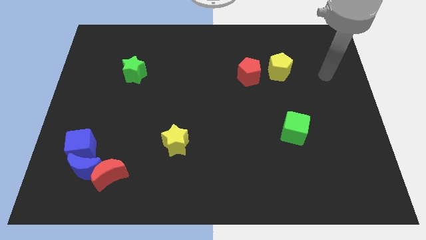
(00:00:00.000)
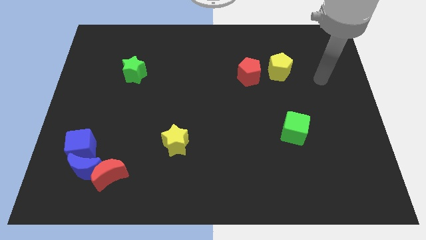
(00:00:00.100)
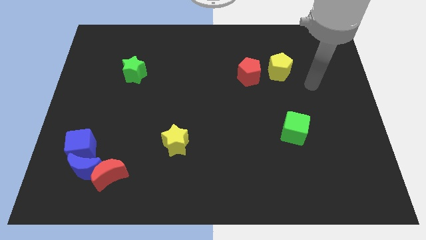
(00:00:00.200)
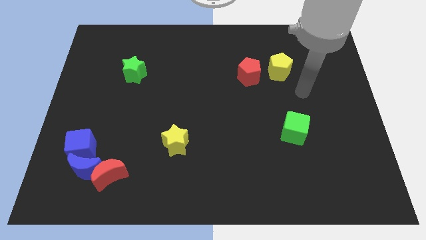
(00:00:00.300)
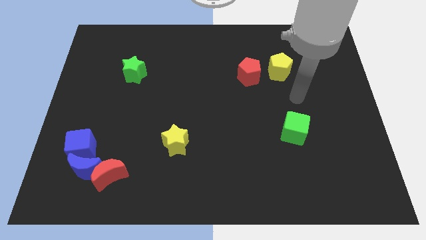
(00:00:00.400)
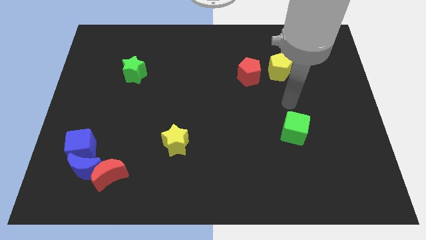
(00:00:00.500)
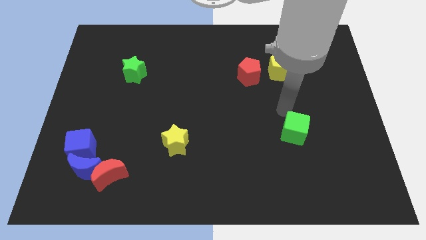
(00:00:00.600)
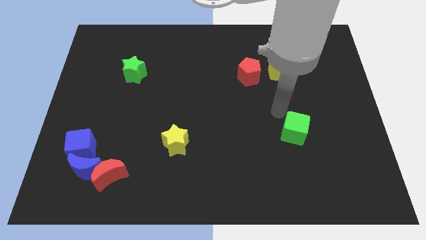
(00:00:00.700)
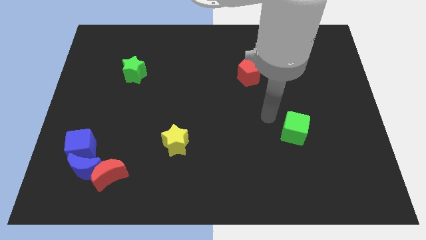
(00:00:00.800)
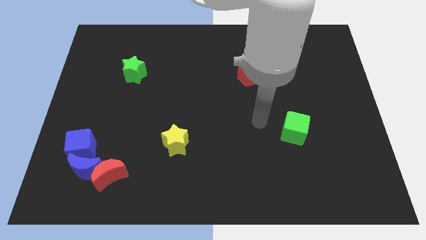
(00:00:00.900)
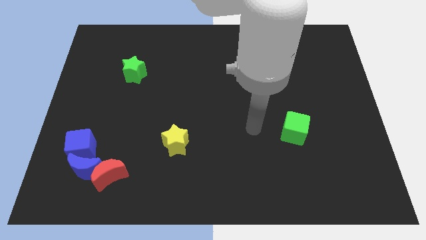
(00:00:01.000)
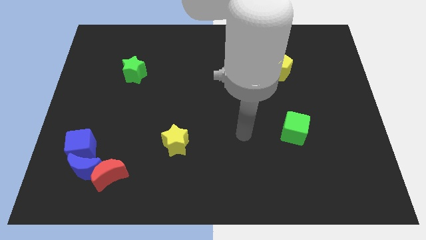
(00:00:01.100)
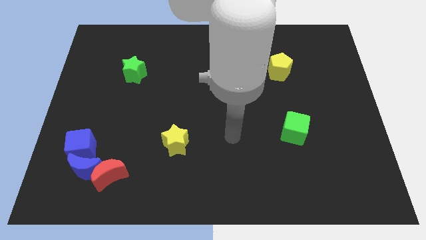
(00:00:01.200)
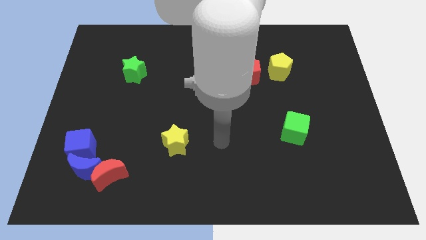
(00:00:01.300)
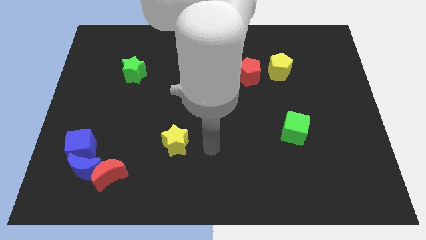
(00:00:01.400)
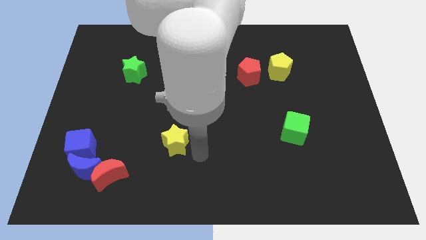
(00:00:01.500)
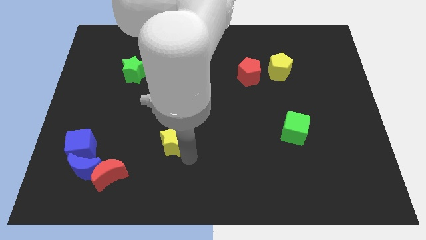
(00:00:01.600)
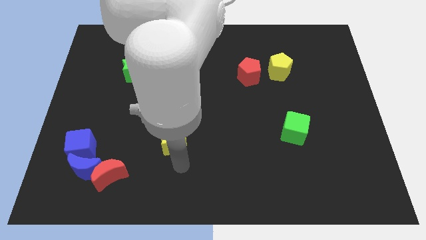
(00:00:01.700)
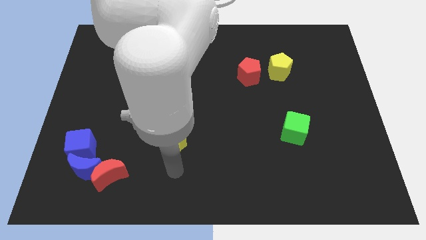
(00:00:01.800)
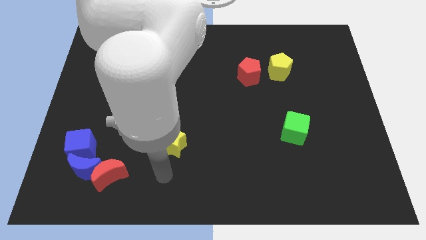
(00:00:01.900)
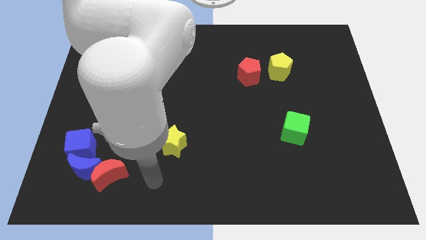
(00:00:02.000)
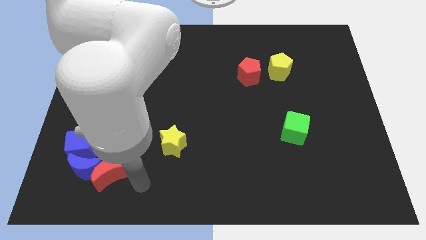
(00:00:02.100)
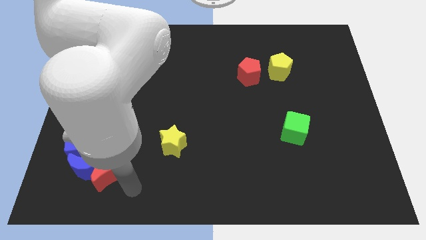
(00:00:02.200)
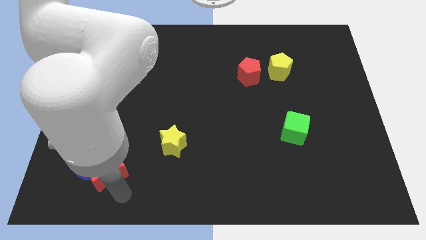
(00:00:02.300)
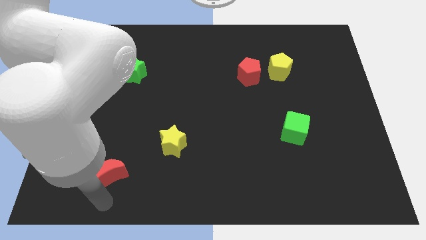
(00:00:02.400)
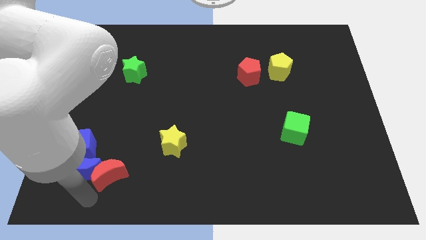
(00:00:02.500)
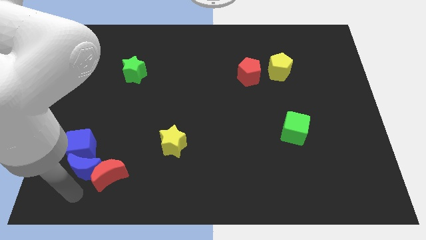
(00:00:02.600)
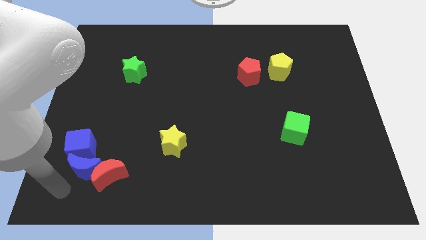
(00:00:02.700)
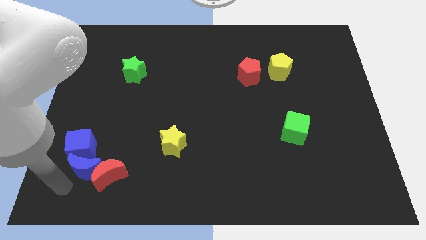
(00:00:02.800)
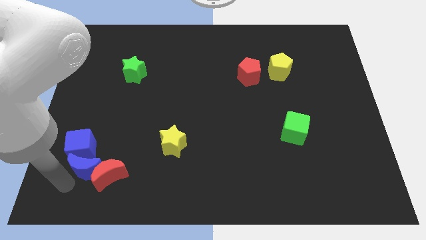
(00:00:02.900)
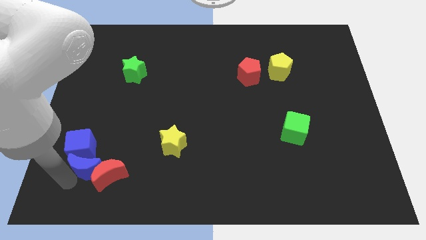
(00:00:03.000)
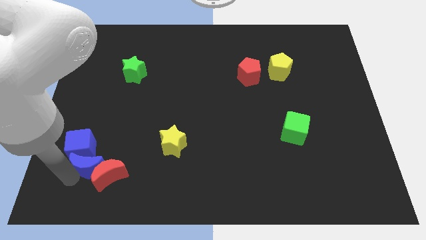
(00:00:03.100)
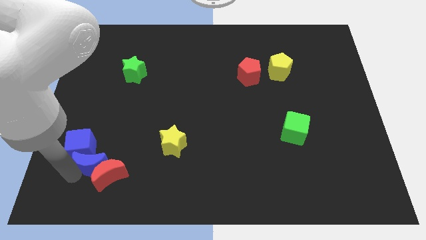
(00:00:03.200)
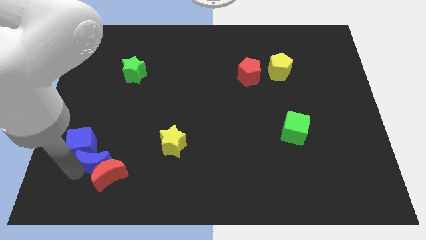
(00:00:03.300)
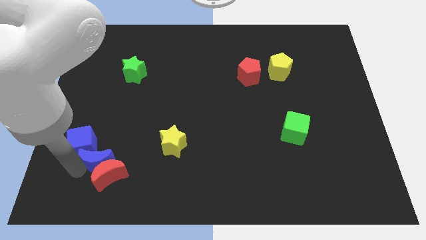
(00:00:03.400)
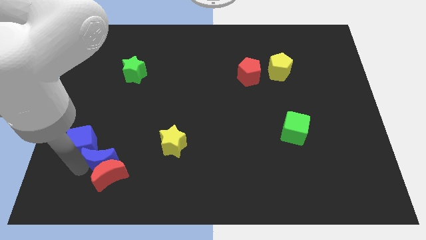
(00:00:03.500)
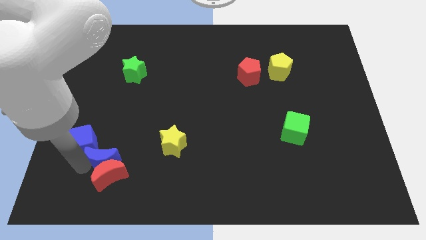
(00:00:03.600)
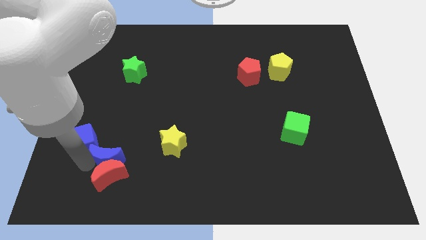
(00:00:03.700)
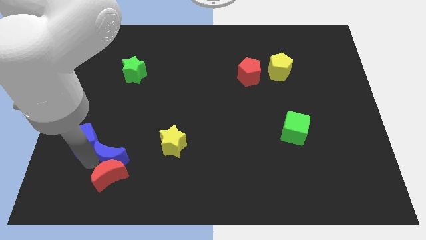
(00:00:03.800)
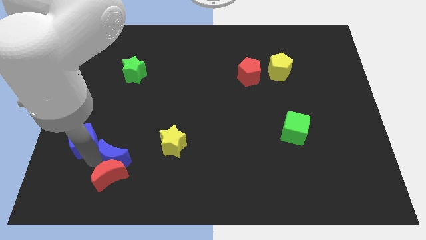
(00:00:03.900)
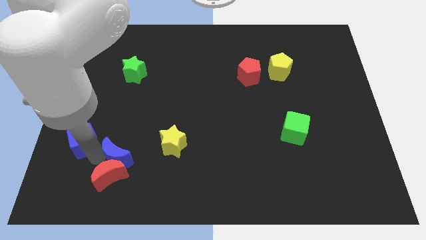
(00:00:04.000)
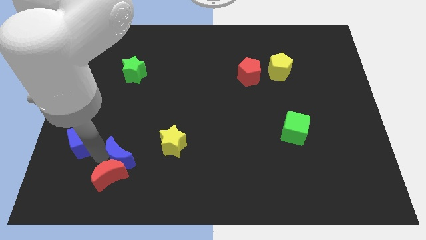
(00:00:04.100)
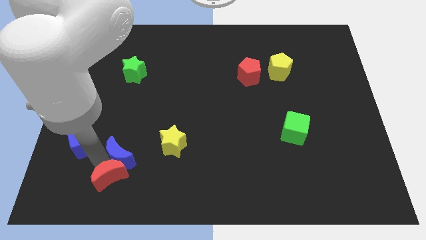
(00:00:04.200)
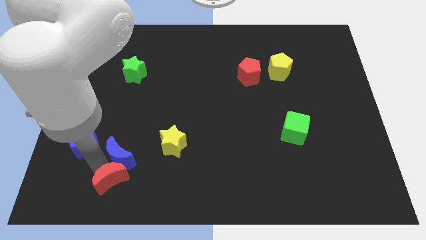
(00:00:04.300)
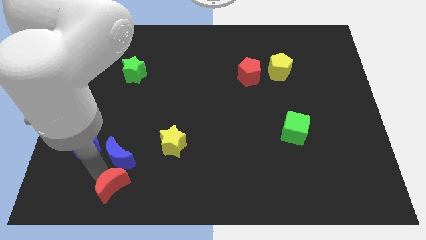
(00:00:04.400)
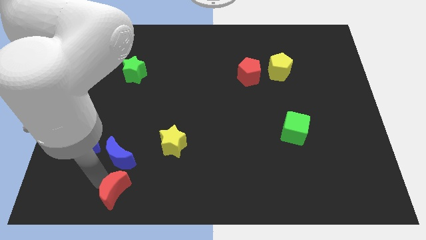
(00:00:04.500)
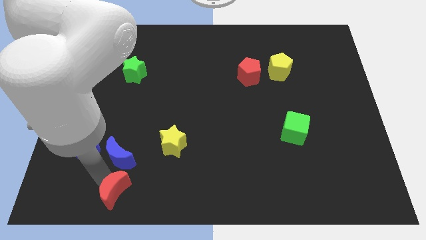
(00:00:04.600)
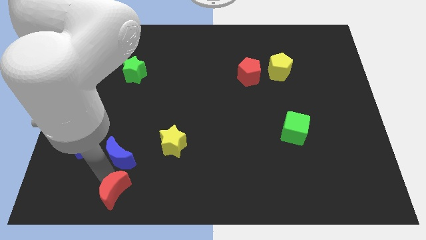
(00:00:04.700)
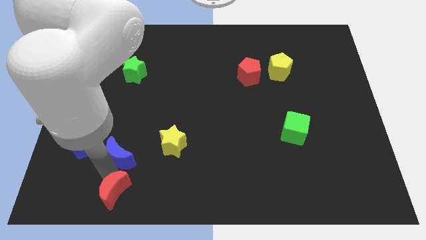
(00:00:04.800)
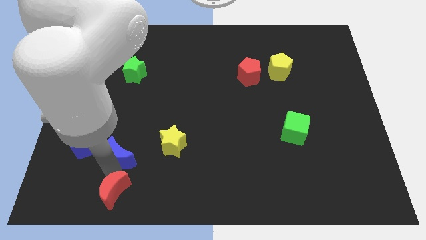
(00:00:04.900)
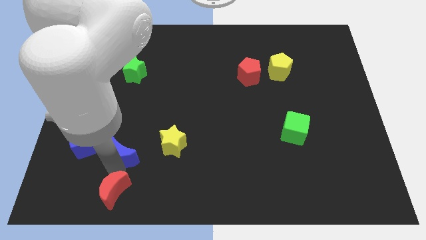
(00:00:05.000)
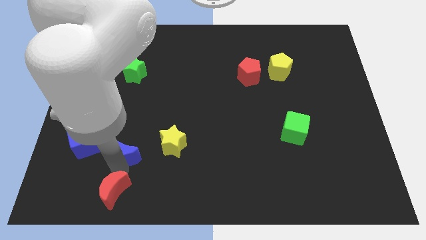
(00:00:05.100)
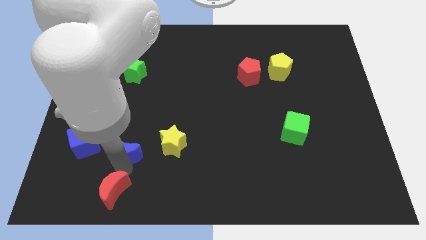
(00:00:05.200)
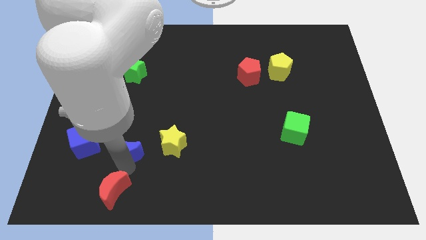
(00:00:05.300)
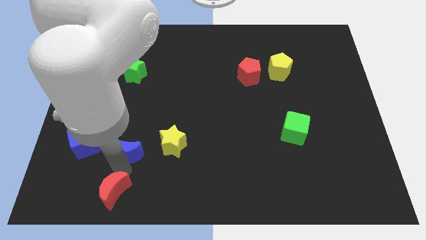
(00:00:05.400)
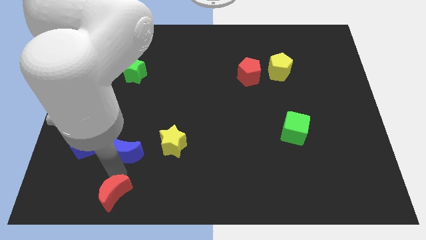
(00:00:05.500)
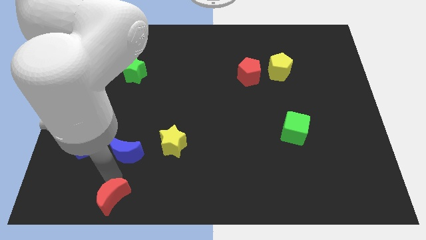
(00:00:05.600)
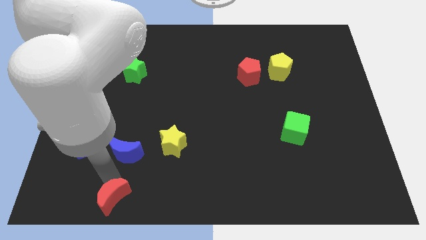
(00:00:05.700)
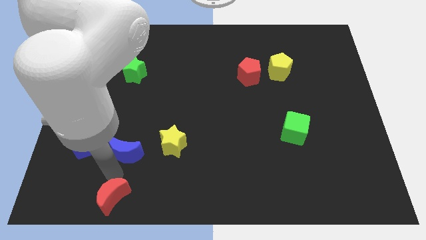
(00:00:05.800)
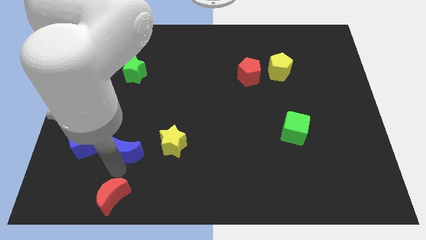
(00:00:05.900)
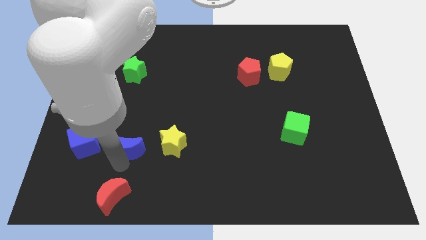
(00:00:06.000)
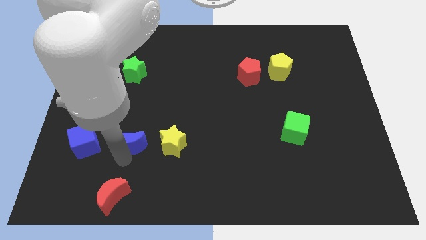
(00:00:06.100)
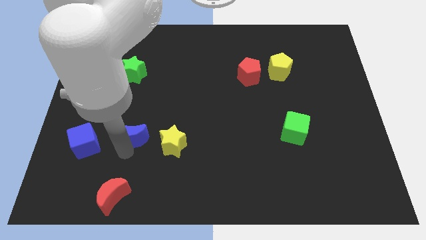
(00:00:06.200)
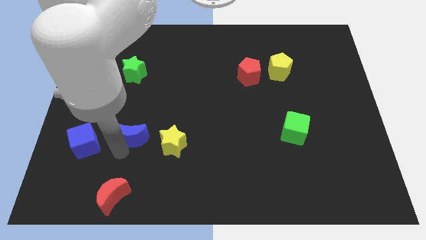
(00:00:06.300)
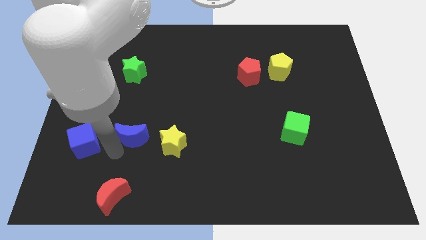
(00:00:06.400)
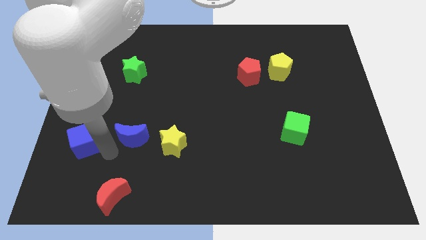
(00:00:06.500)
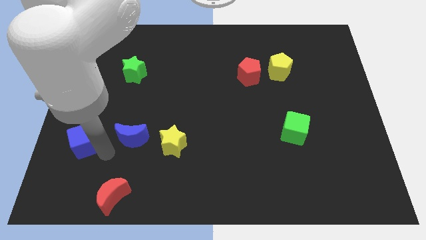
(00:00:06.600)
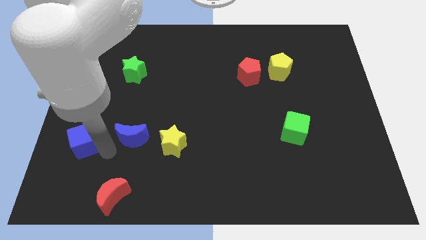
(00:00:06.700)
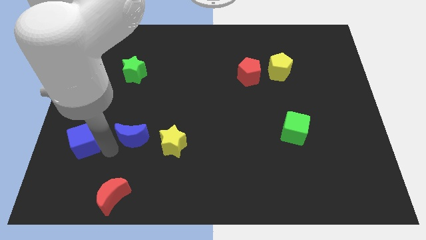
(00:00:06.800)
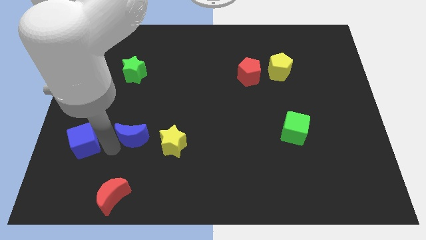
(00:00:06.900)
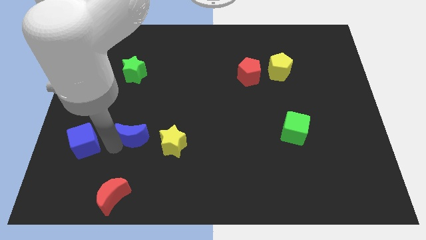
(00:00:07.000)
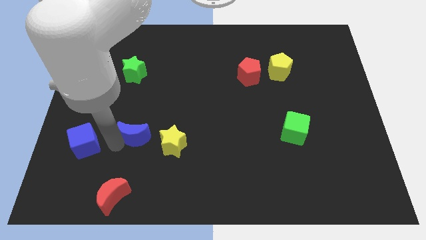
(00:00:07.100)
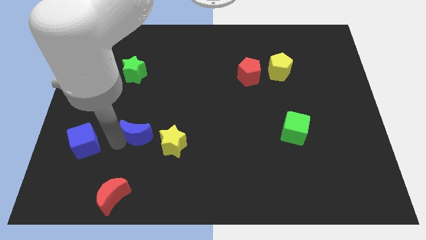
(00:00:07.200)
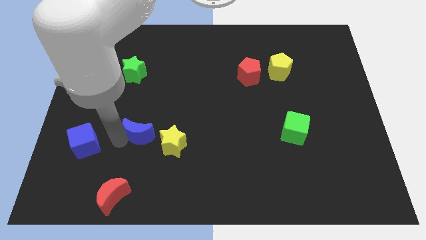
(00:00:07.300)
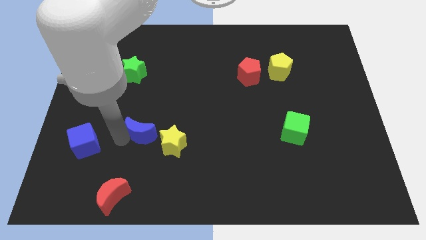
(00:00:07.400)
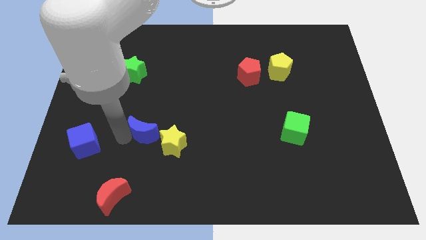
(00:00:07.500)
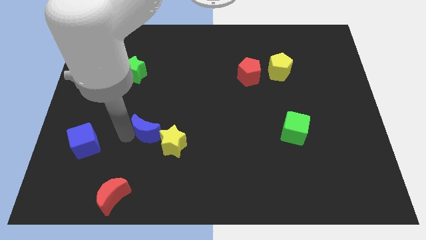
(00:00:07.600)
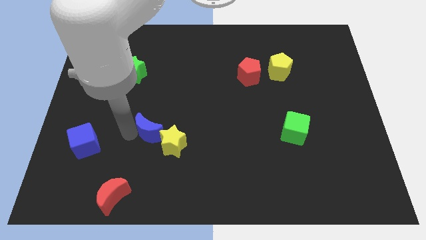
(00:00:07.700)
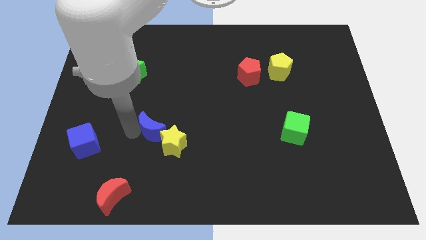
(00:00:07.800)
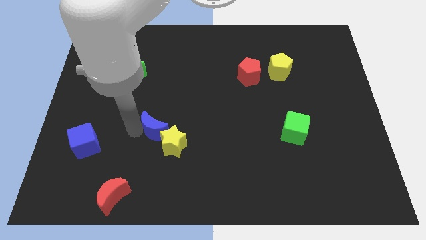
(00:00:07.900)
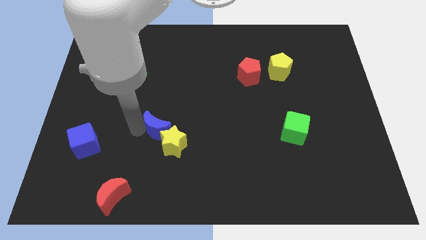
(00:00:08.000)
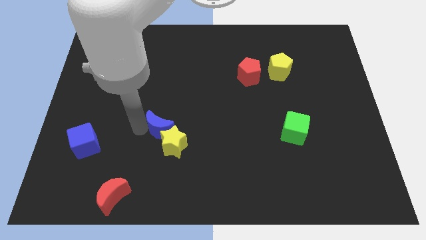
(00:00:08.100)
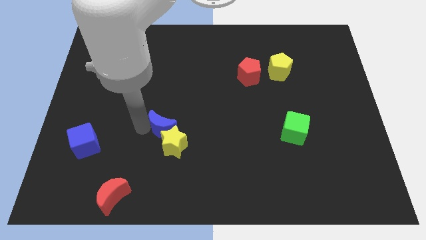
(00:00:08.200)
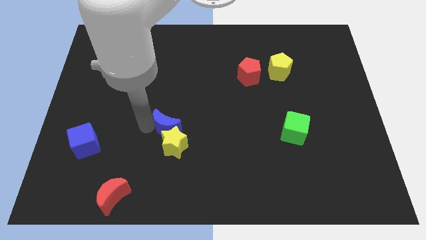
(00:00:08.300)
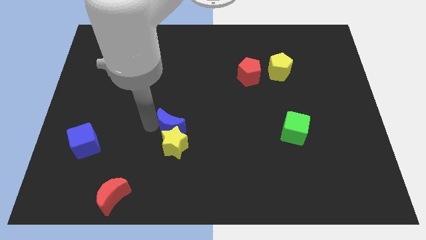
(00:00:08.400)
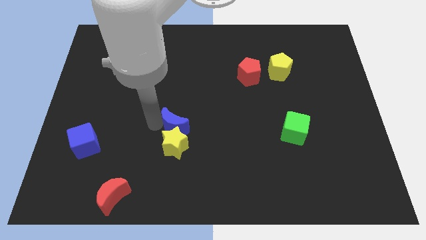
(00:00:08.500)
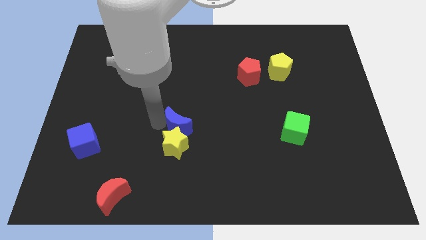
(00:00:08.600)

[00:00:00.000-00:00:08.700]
move the blue moon diagonally upwards and to the right
